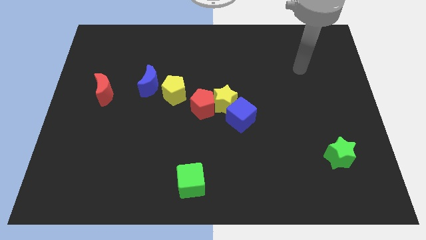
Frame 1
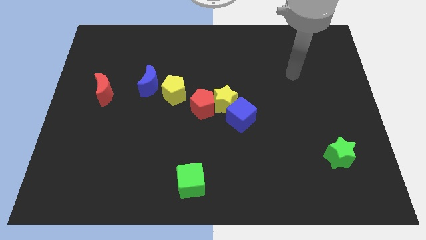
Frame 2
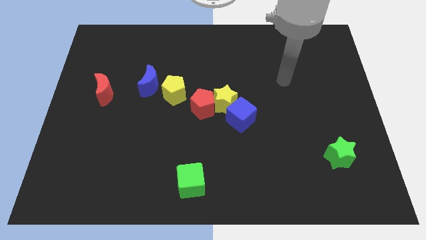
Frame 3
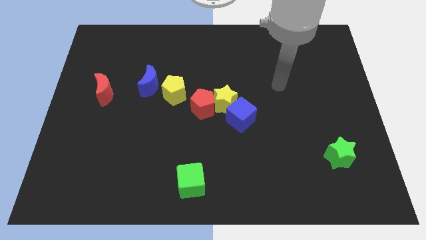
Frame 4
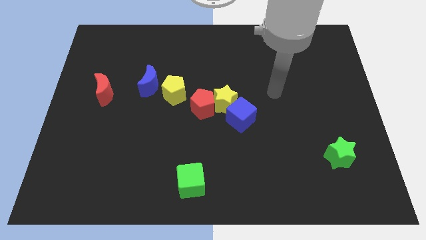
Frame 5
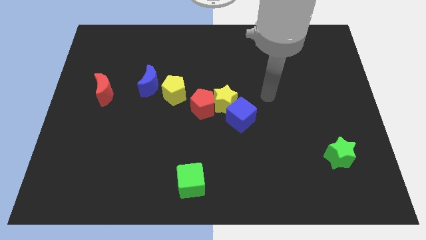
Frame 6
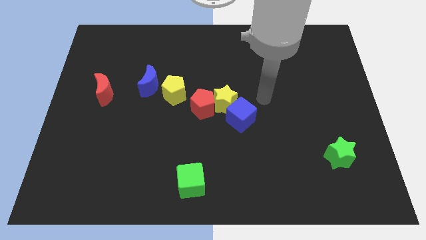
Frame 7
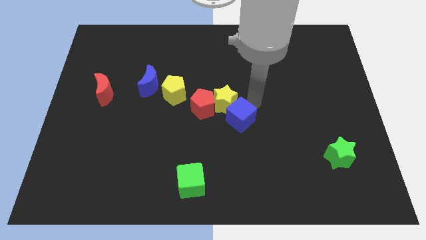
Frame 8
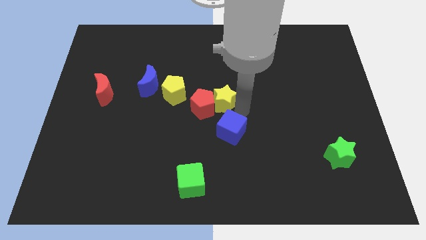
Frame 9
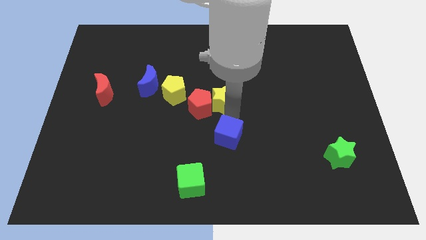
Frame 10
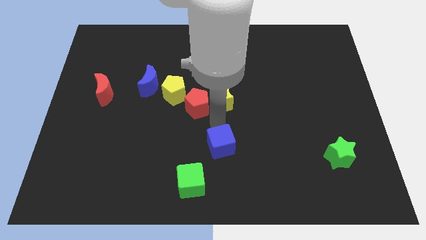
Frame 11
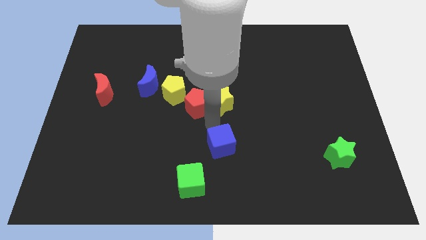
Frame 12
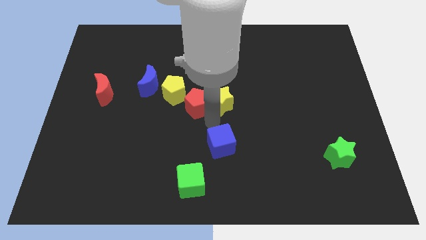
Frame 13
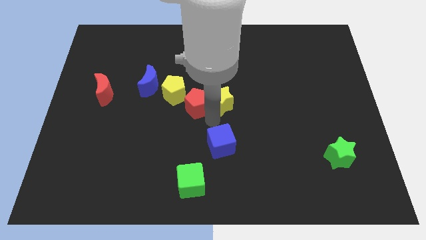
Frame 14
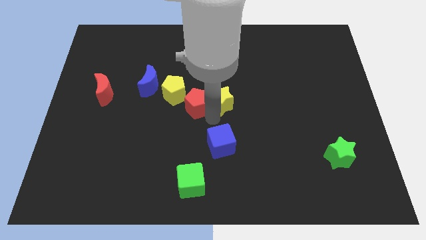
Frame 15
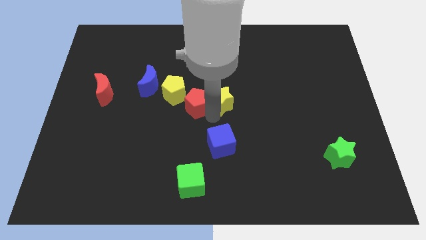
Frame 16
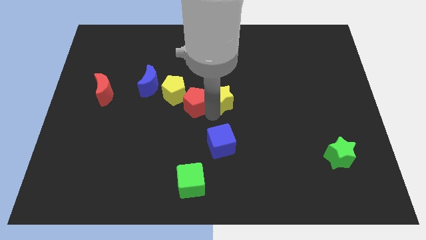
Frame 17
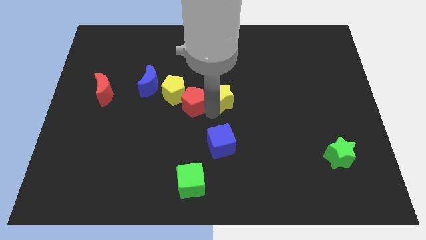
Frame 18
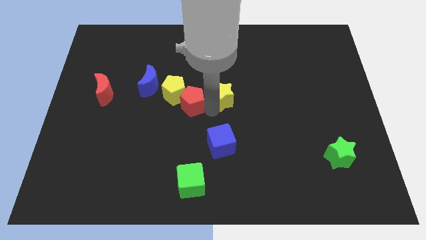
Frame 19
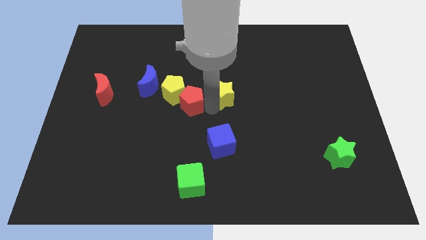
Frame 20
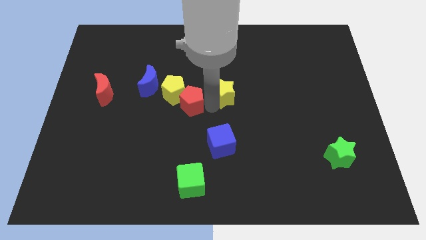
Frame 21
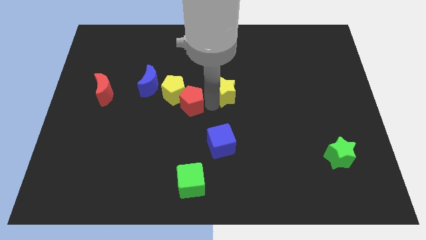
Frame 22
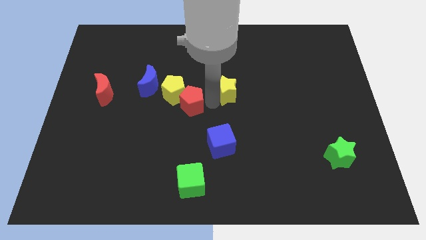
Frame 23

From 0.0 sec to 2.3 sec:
move the yellow star away from the red pentagon and blue cube

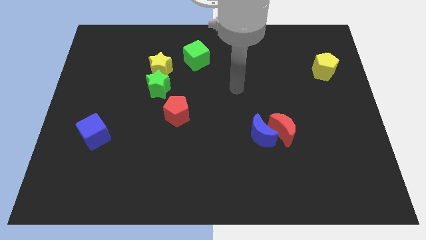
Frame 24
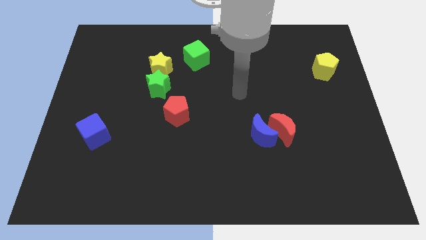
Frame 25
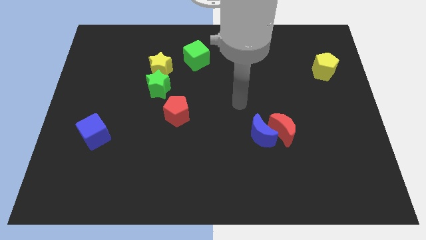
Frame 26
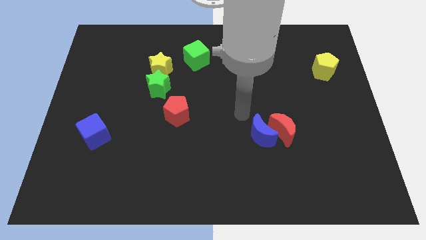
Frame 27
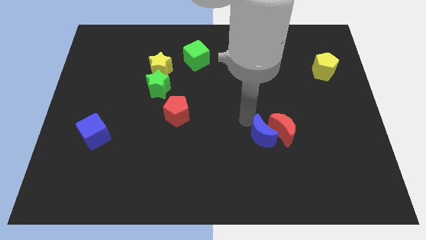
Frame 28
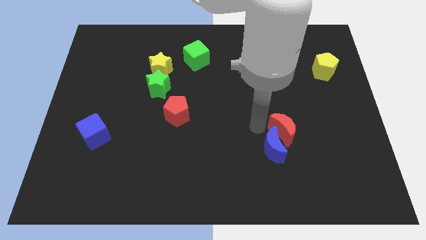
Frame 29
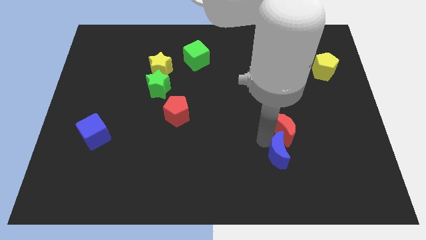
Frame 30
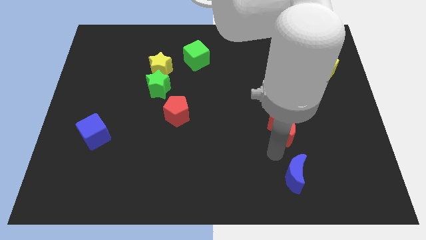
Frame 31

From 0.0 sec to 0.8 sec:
pull the red moon apart from the blue moon

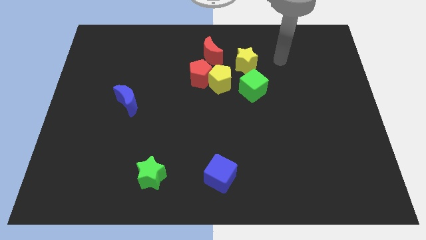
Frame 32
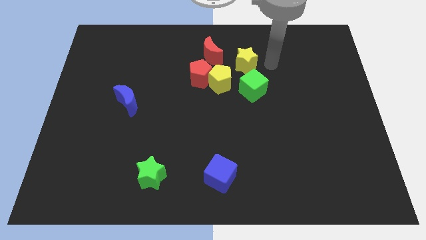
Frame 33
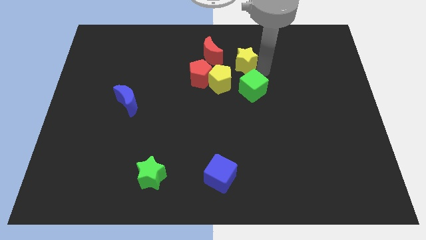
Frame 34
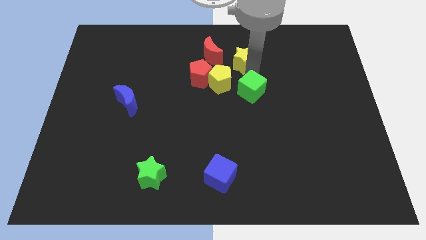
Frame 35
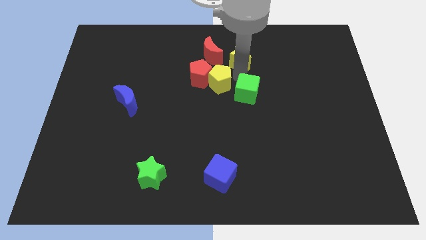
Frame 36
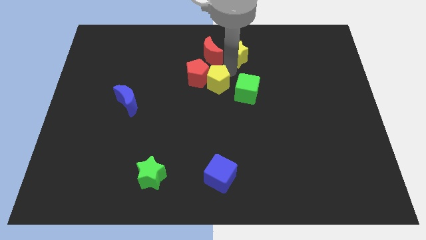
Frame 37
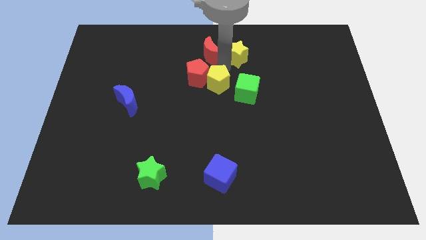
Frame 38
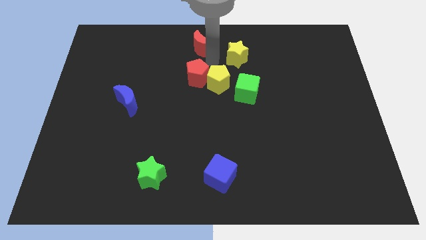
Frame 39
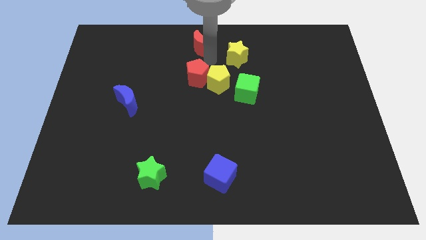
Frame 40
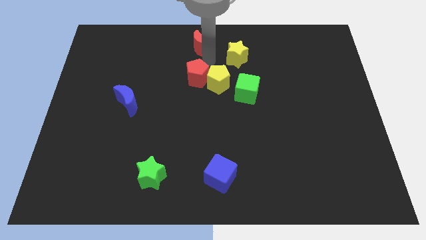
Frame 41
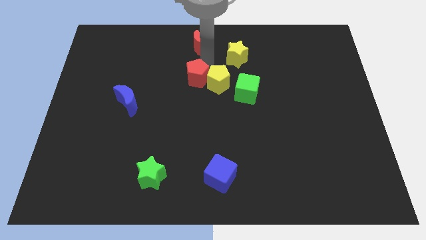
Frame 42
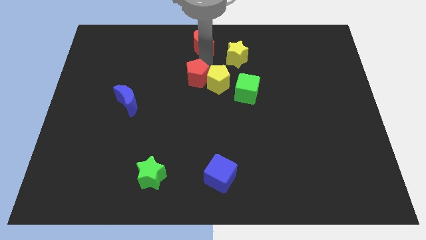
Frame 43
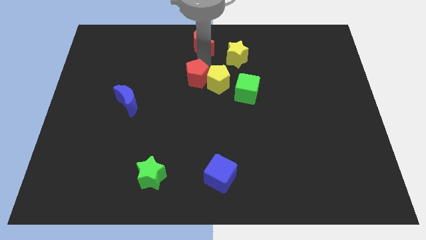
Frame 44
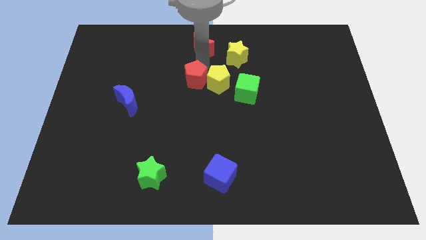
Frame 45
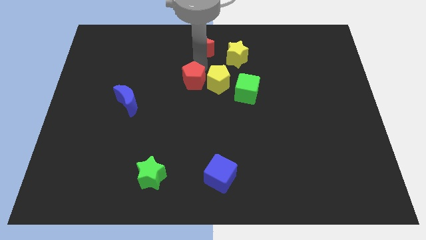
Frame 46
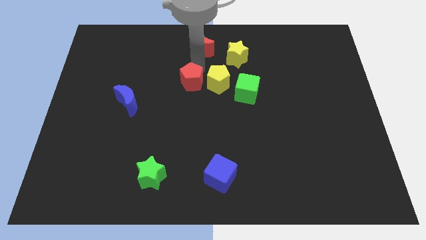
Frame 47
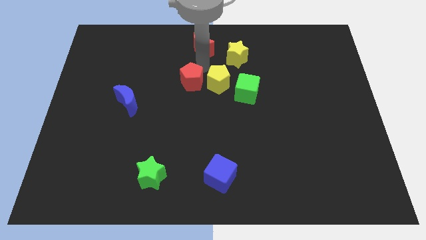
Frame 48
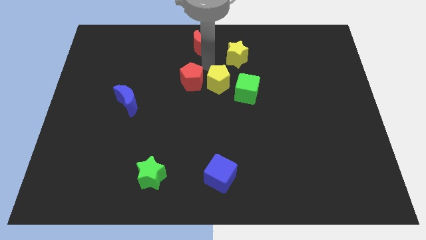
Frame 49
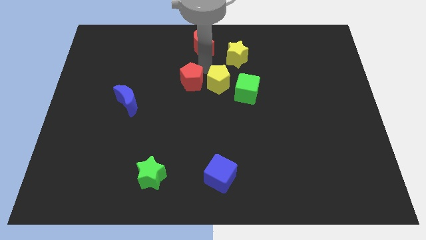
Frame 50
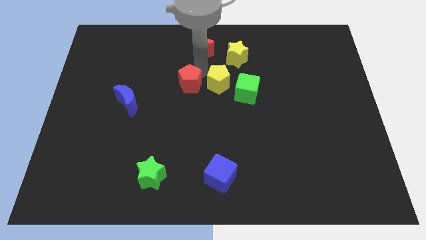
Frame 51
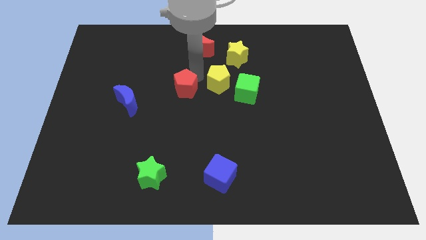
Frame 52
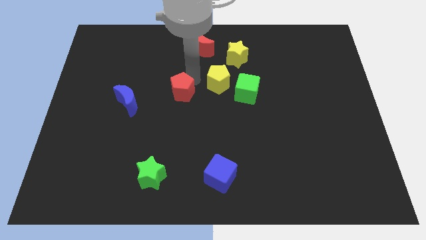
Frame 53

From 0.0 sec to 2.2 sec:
move the red pentagon away from the yellow pentagon and red moon

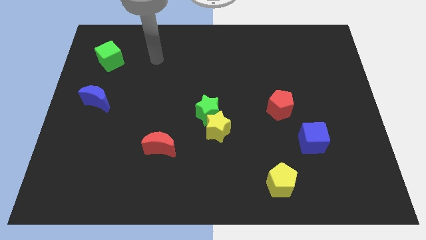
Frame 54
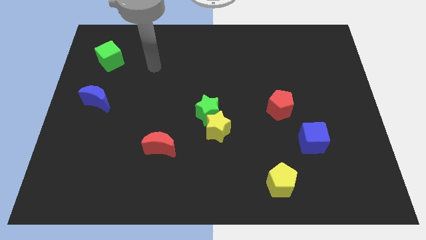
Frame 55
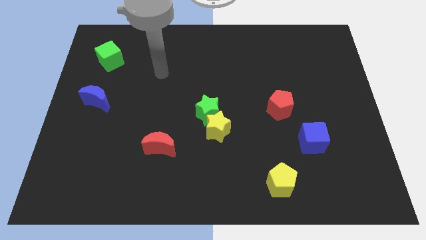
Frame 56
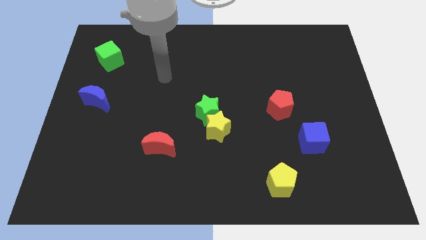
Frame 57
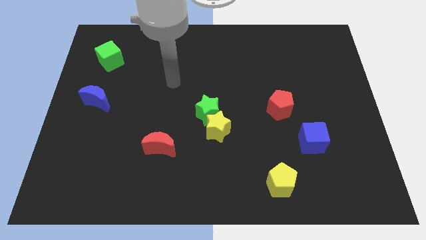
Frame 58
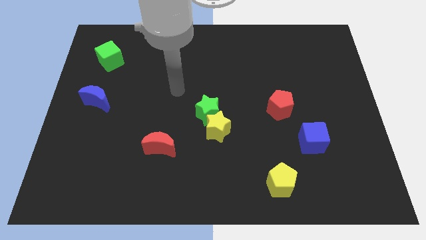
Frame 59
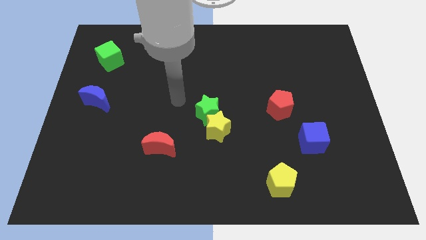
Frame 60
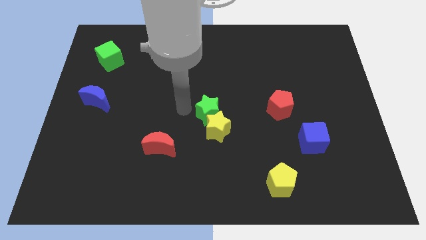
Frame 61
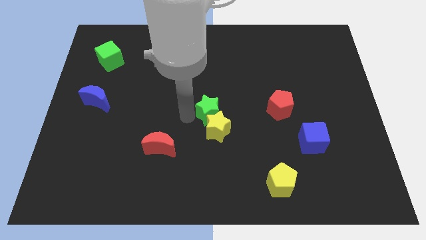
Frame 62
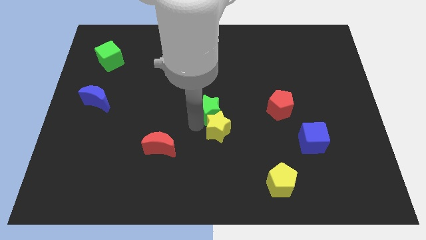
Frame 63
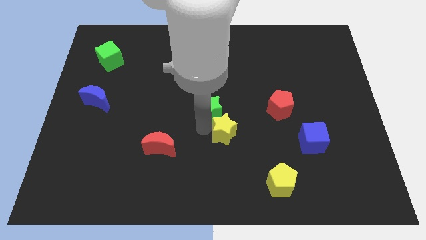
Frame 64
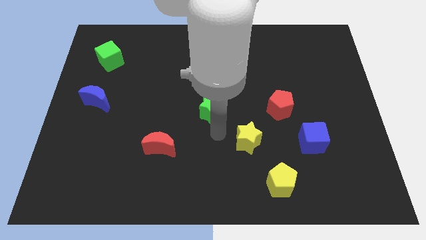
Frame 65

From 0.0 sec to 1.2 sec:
separate the green star from the yellow star

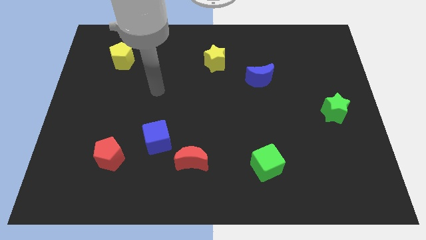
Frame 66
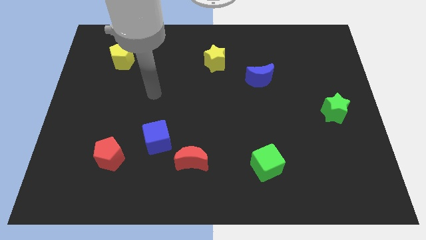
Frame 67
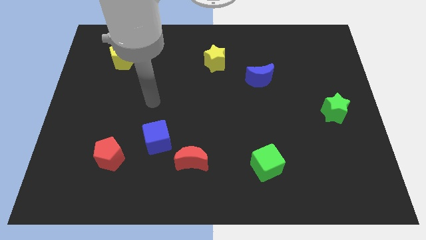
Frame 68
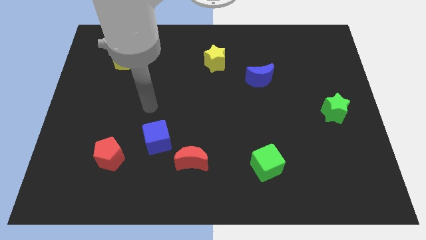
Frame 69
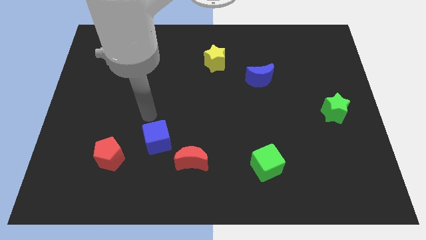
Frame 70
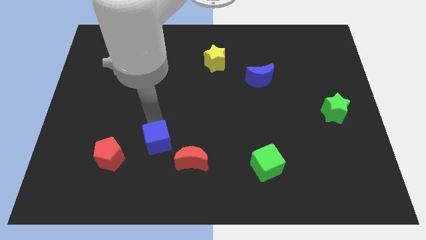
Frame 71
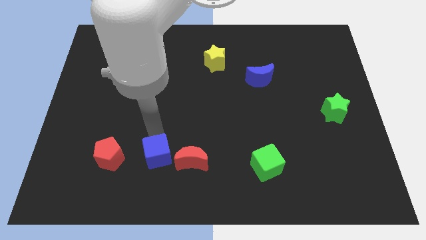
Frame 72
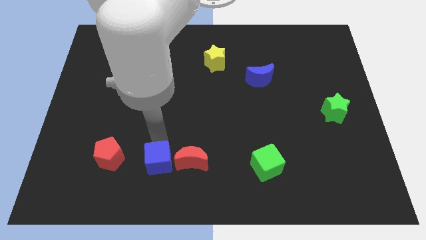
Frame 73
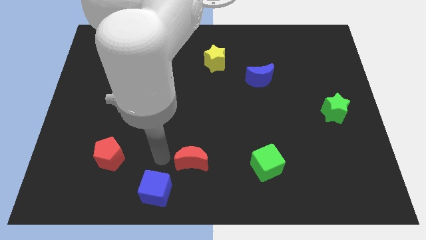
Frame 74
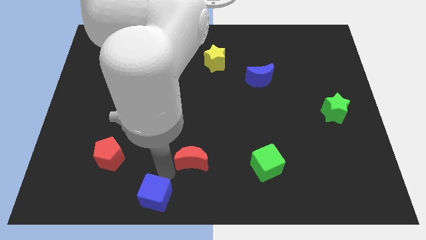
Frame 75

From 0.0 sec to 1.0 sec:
move the red moon away from the blue cube

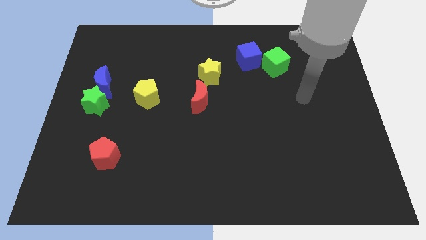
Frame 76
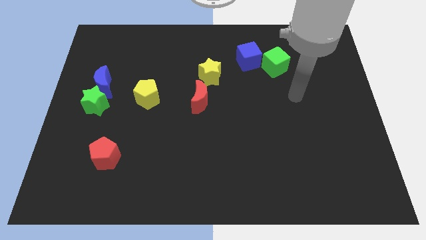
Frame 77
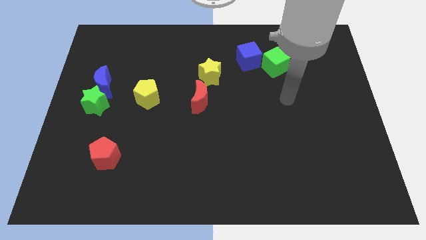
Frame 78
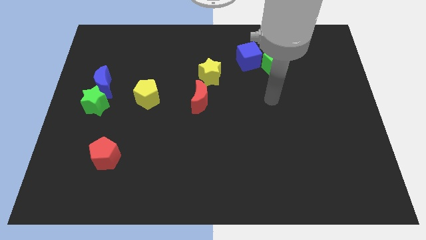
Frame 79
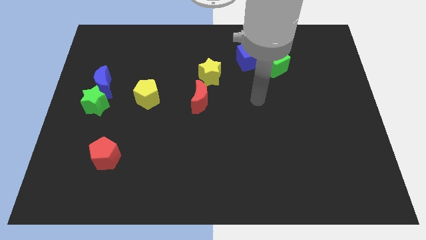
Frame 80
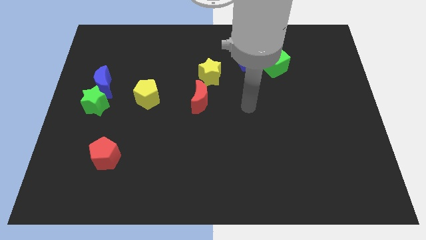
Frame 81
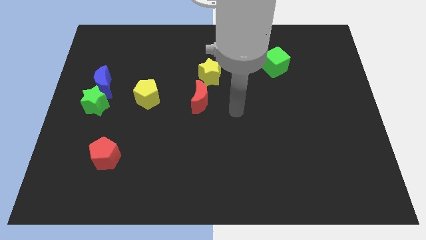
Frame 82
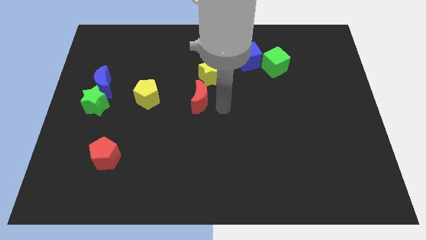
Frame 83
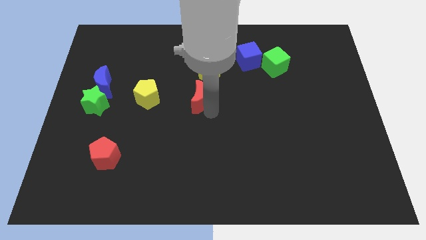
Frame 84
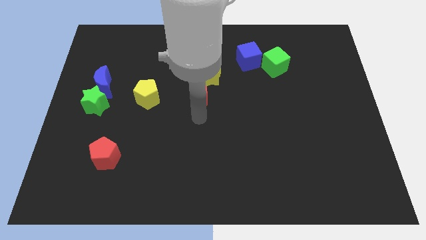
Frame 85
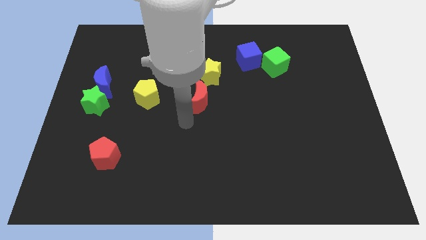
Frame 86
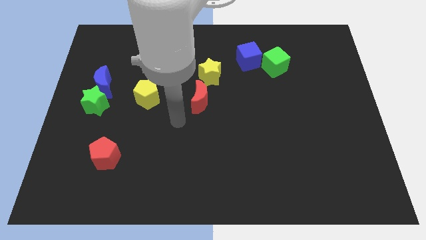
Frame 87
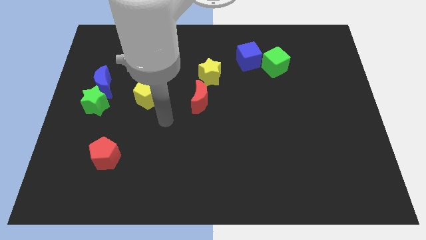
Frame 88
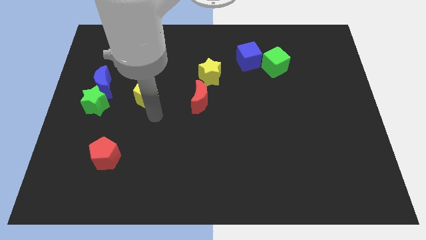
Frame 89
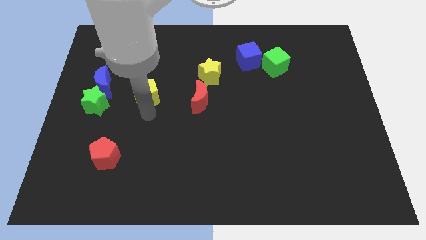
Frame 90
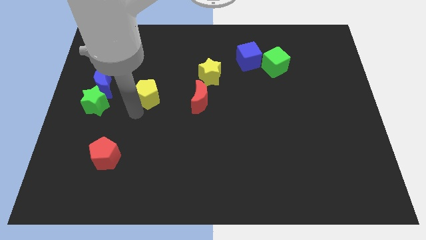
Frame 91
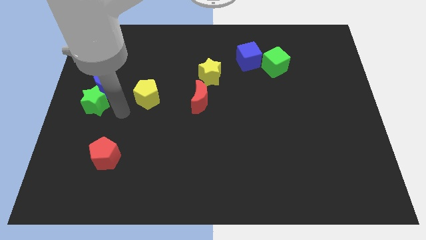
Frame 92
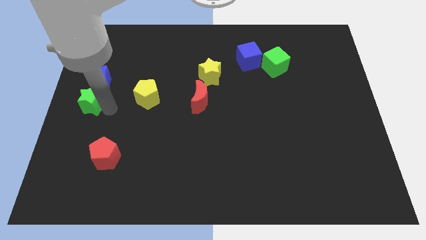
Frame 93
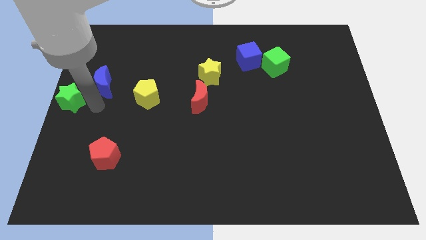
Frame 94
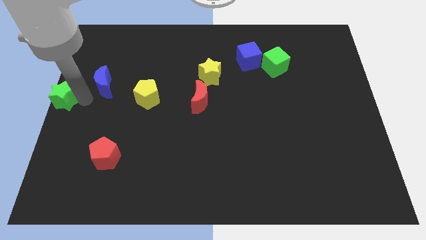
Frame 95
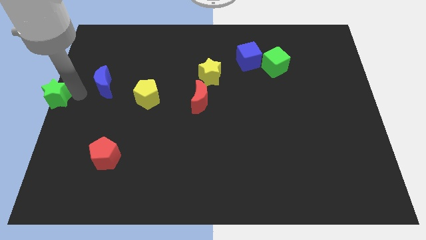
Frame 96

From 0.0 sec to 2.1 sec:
move the blue moon away from the green star
